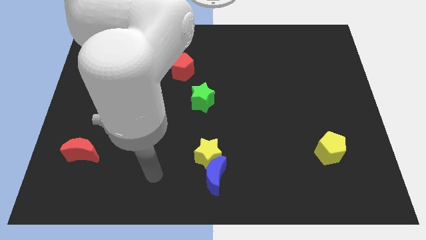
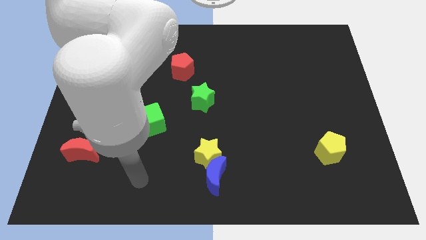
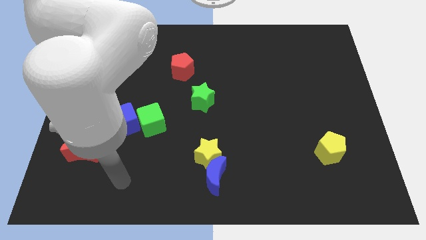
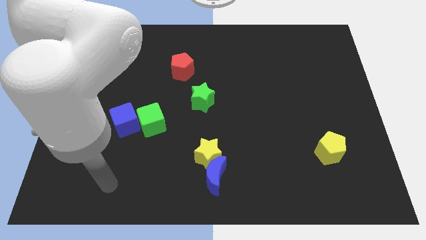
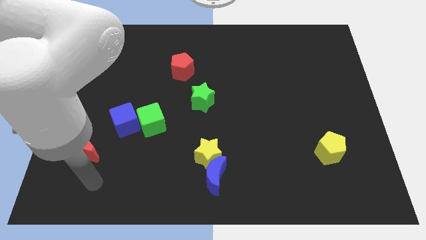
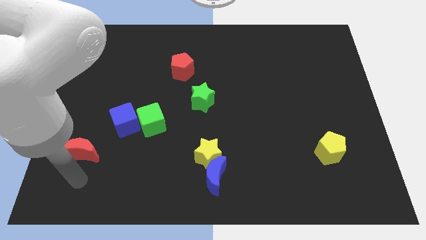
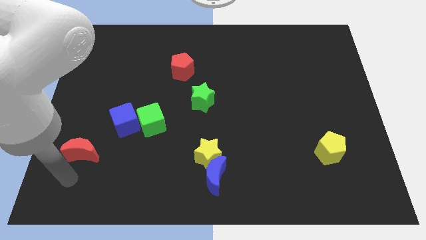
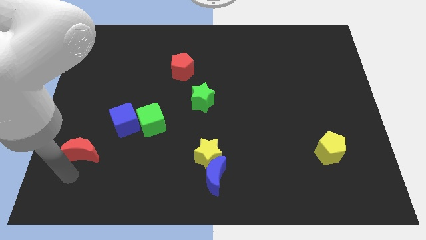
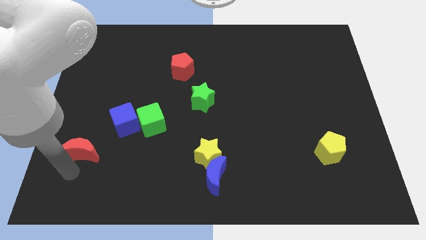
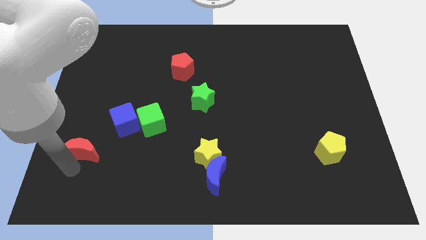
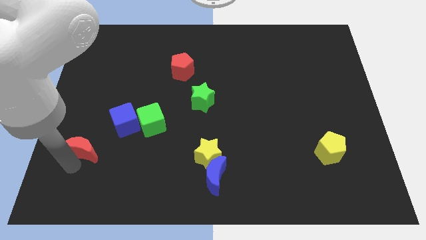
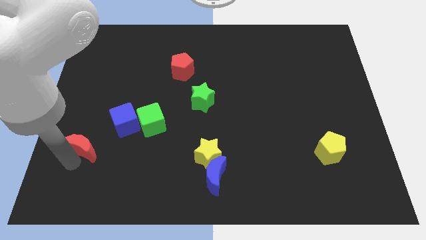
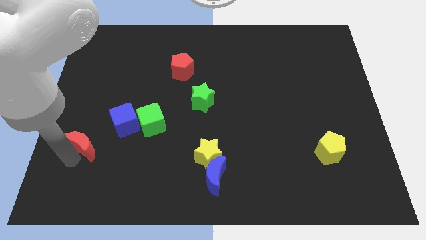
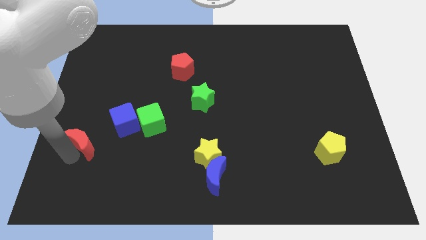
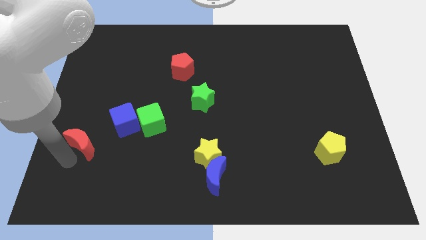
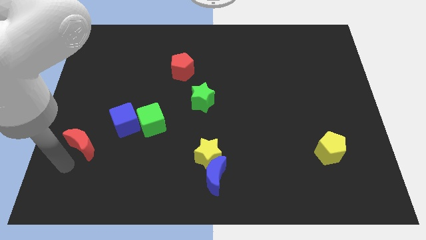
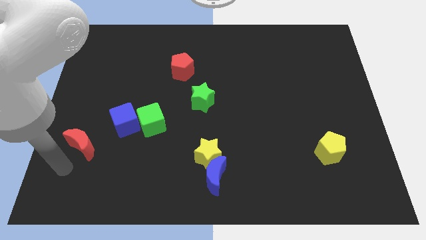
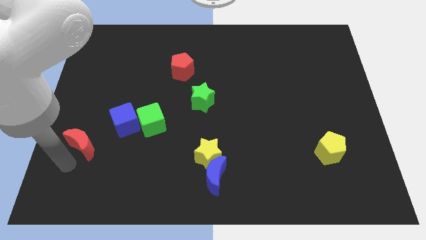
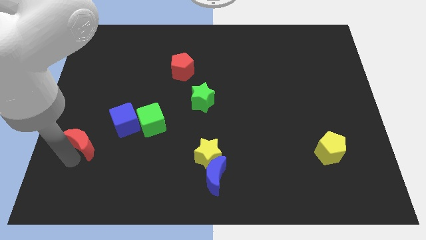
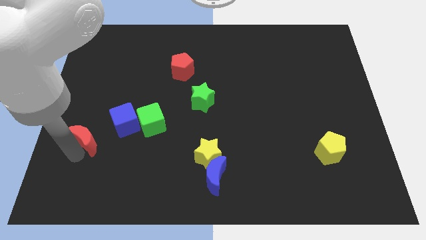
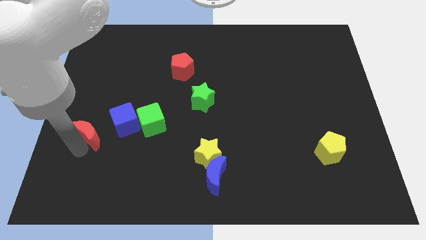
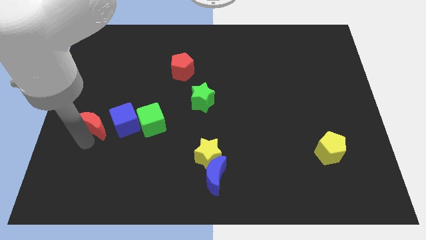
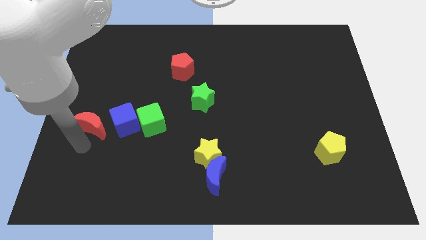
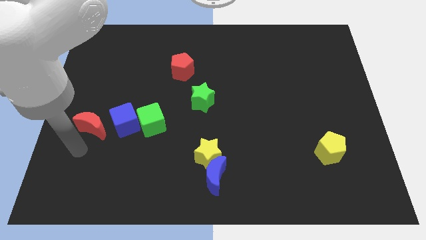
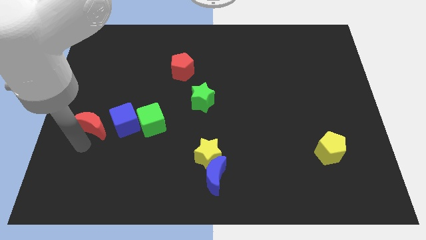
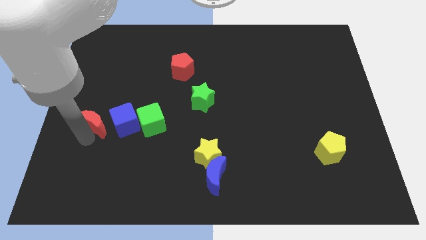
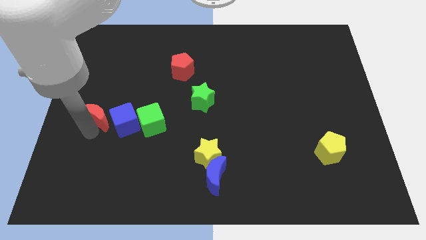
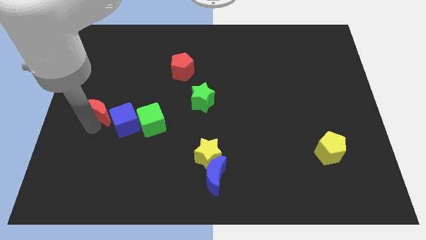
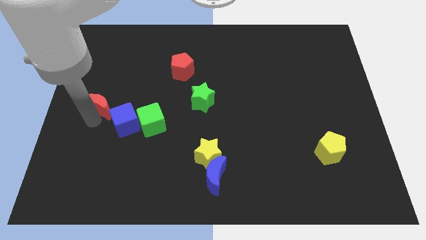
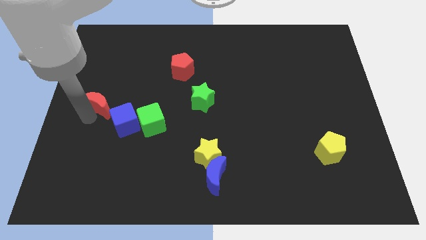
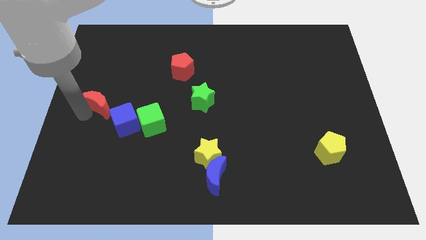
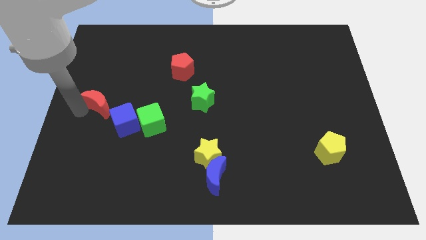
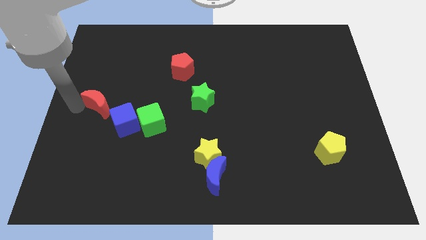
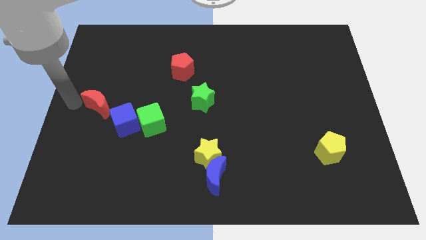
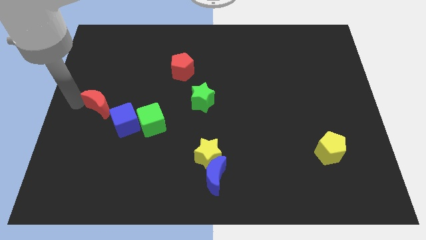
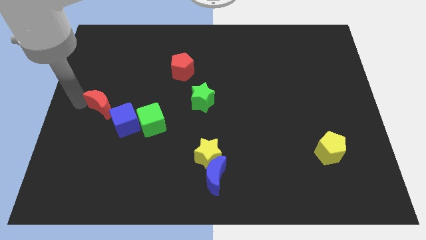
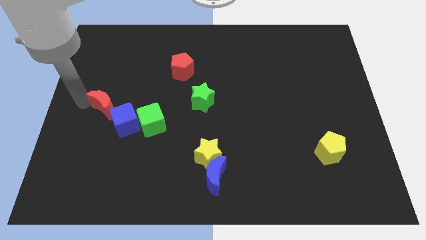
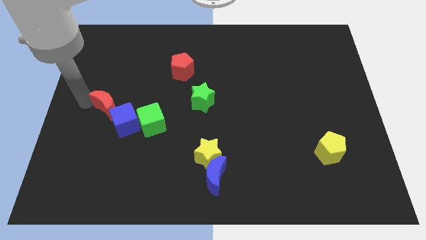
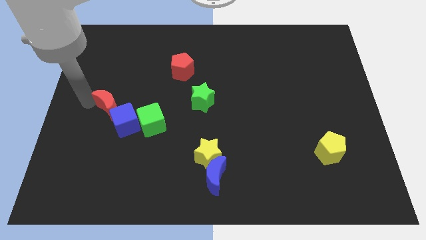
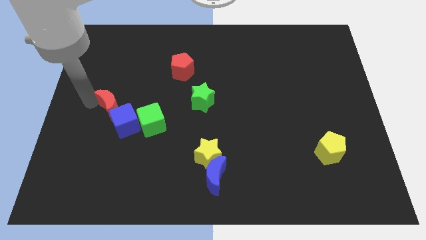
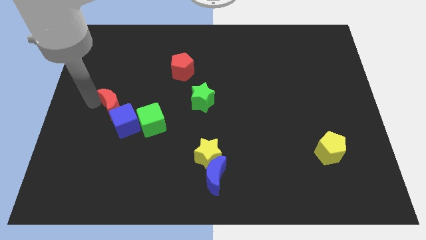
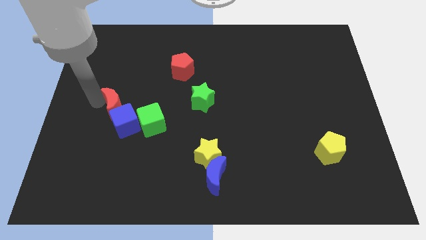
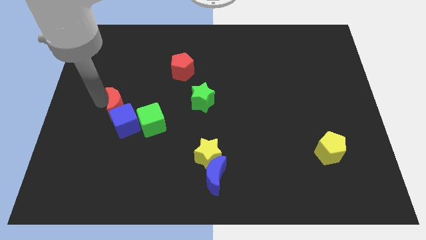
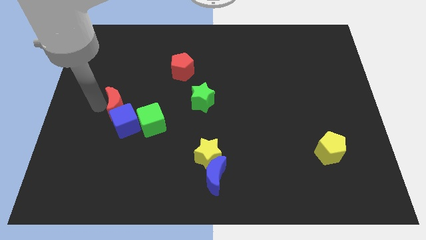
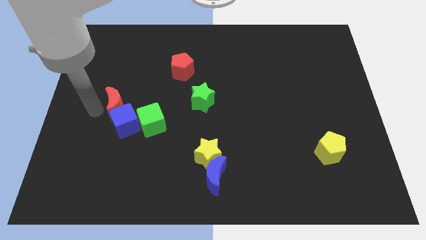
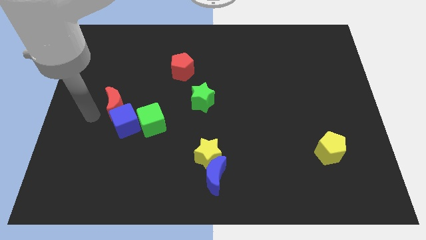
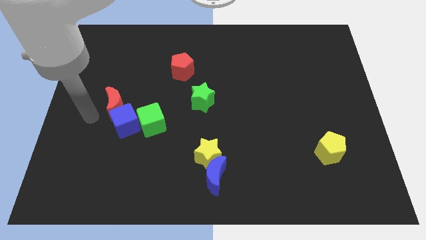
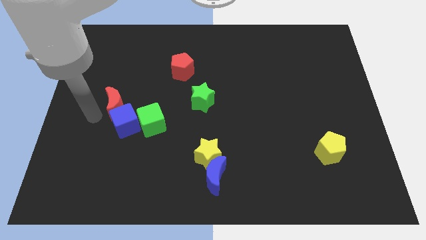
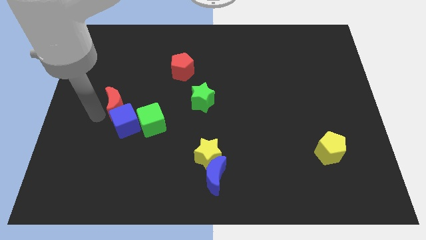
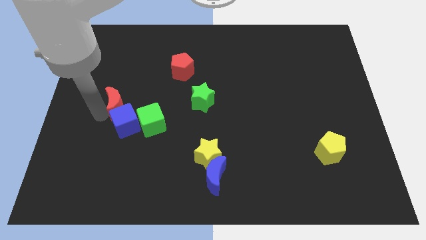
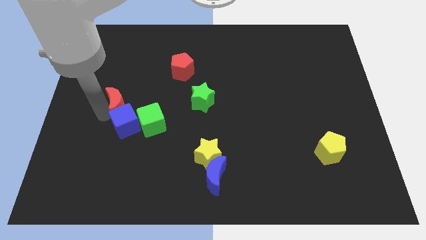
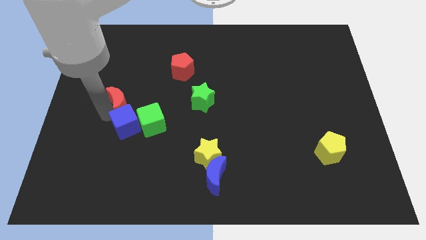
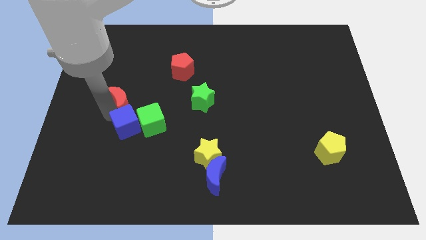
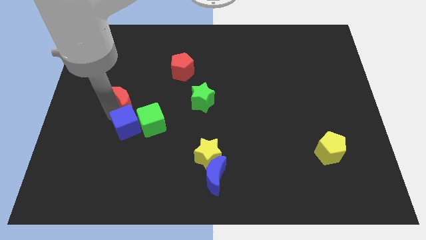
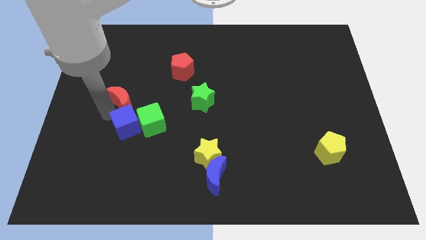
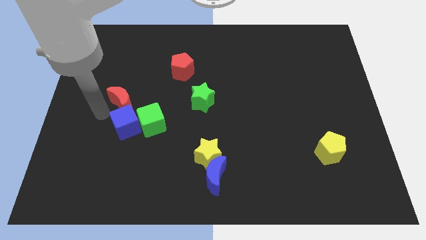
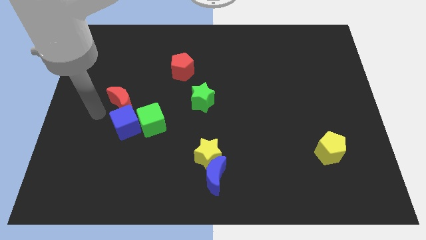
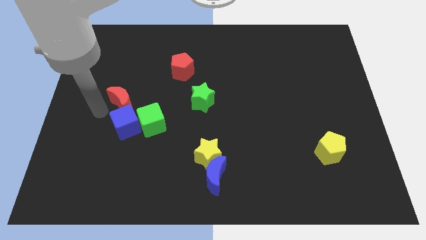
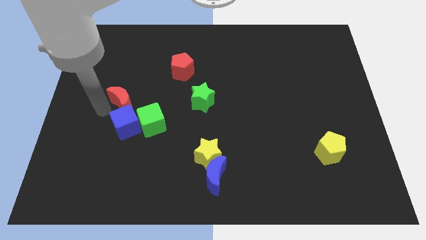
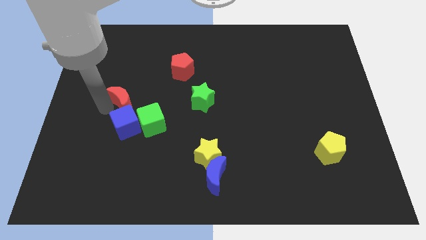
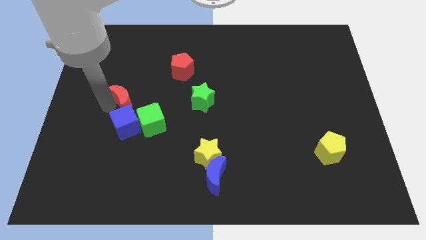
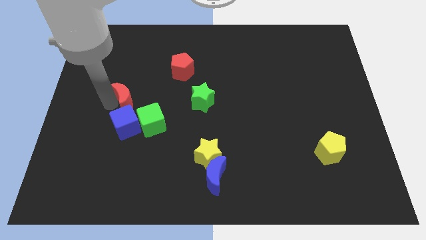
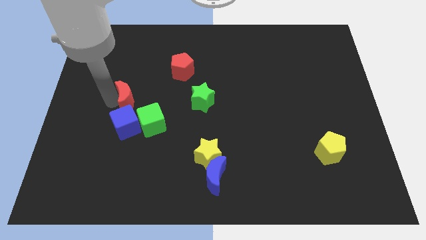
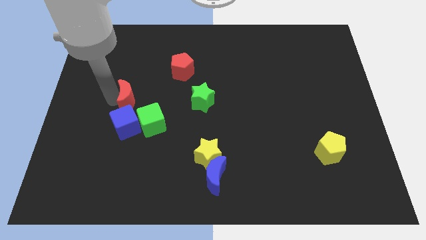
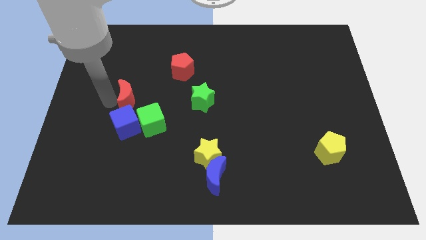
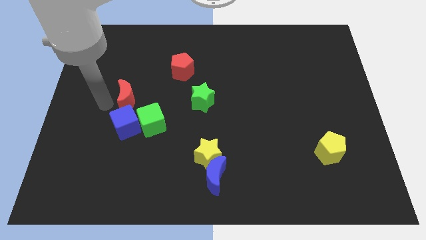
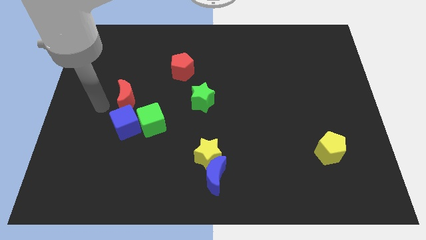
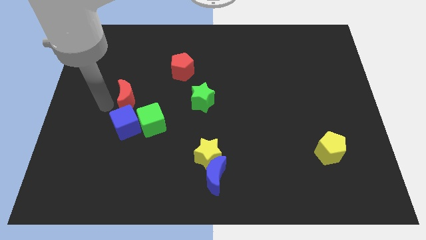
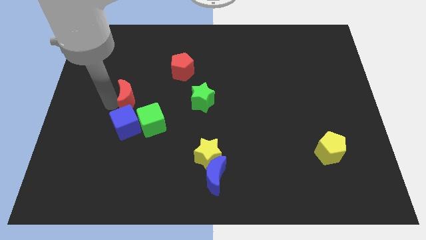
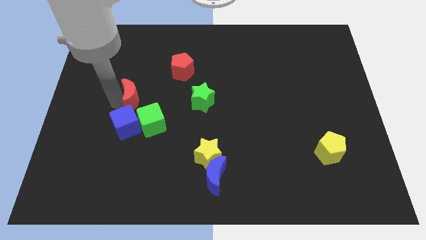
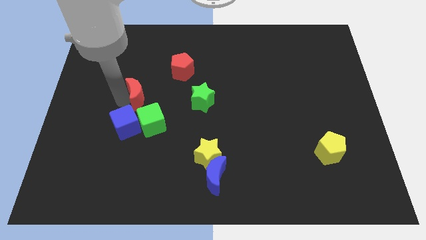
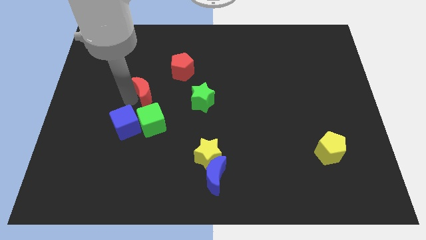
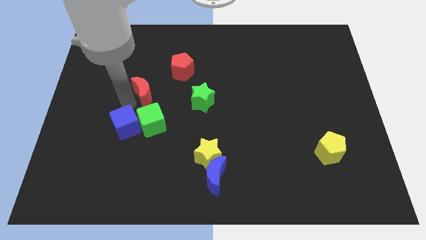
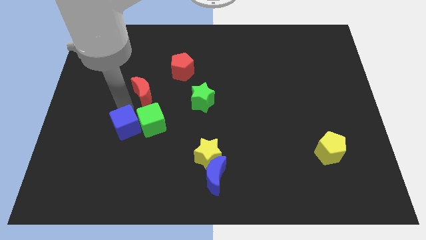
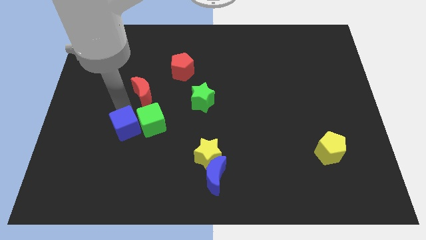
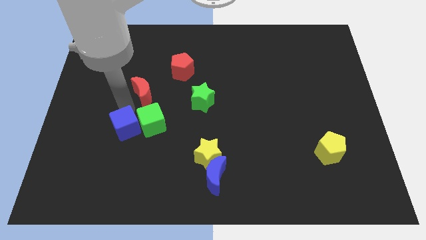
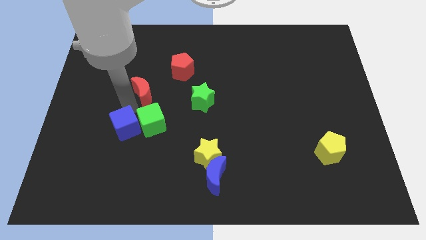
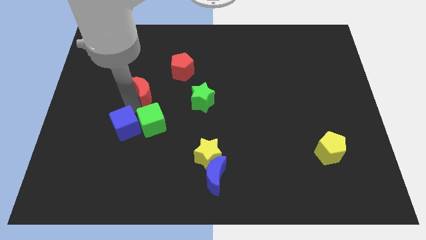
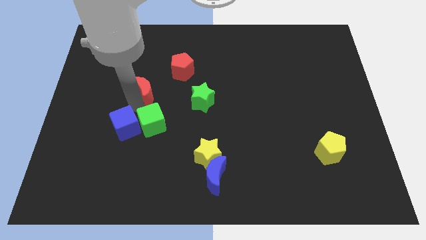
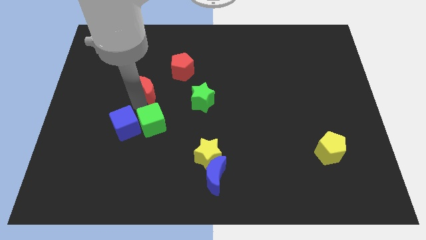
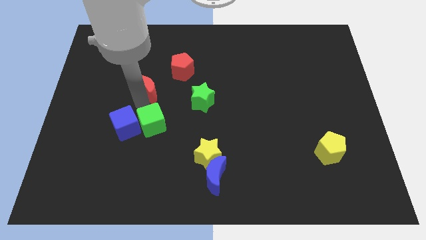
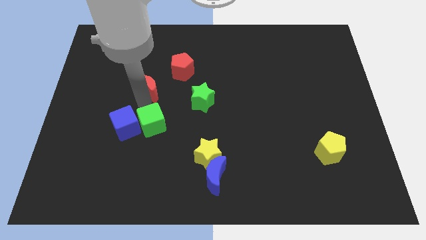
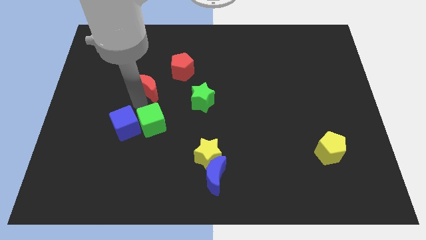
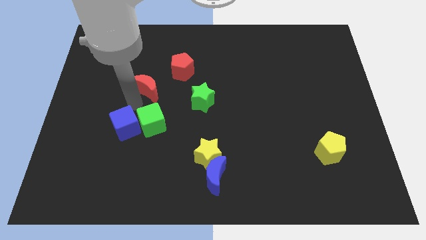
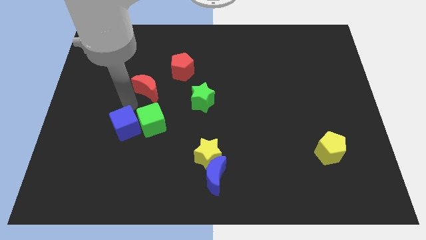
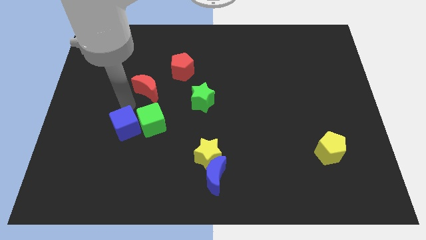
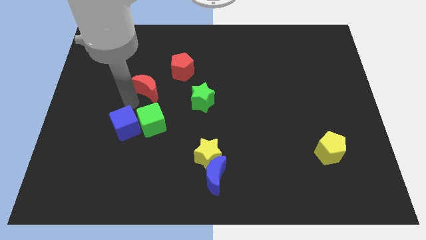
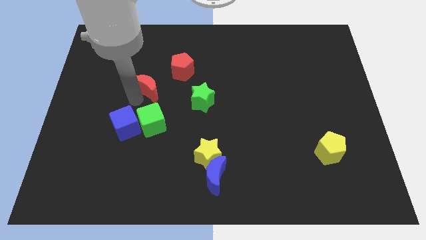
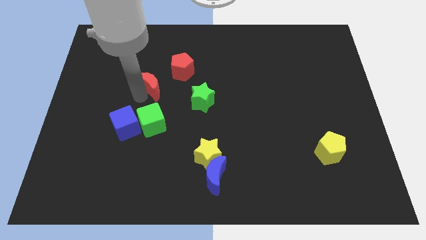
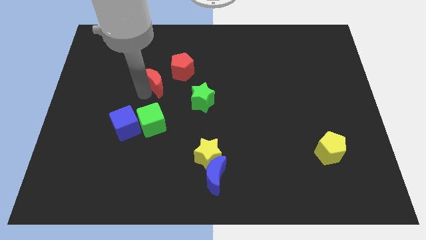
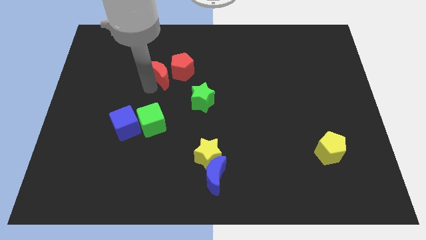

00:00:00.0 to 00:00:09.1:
slide the red moon towards the red pentagon
